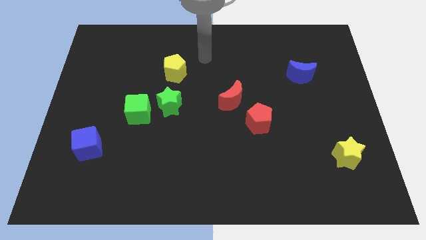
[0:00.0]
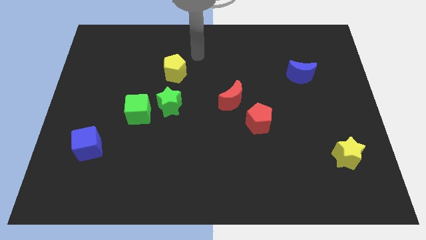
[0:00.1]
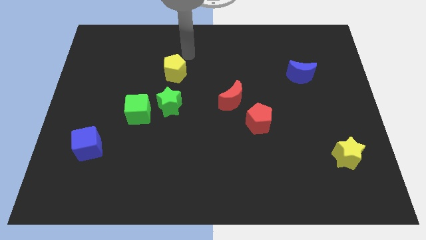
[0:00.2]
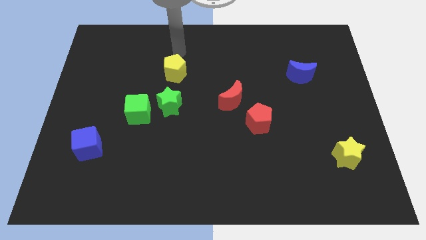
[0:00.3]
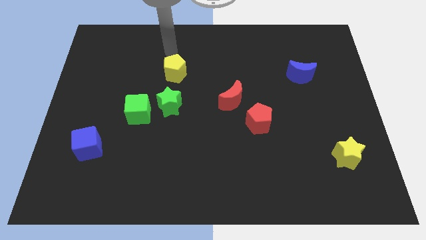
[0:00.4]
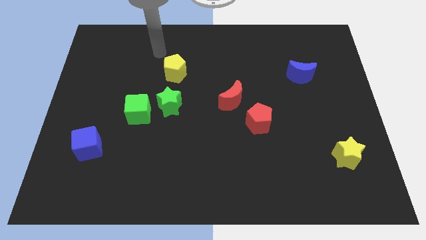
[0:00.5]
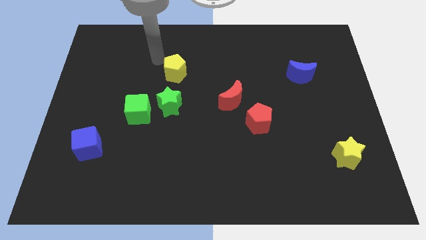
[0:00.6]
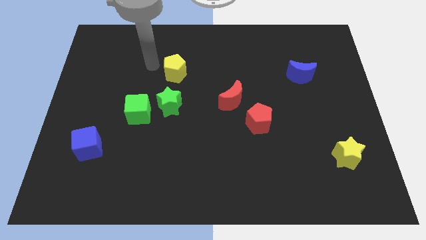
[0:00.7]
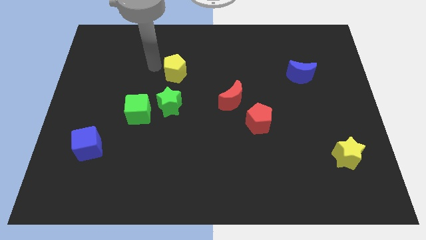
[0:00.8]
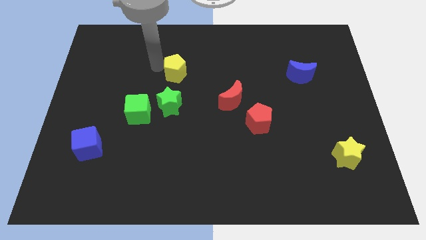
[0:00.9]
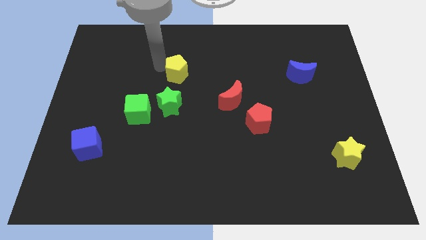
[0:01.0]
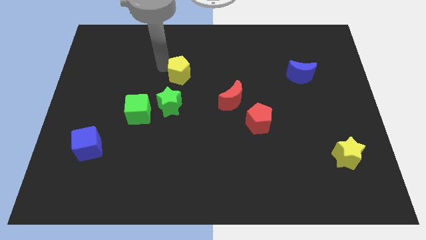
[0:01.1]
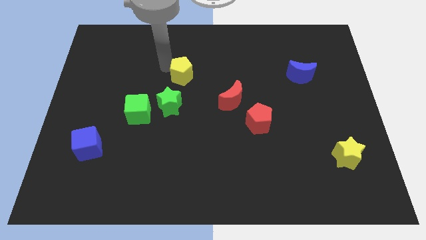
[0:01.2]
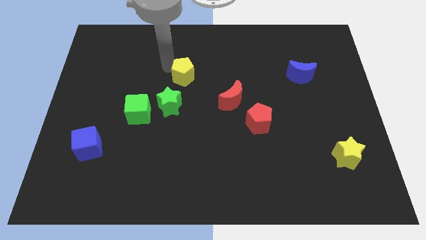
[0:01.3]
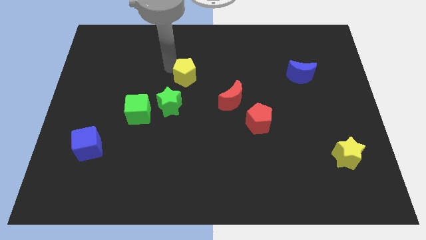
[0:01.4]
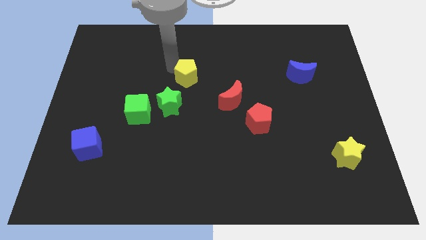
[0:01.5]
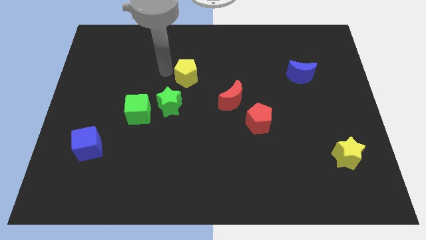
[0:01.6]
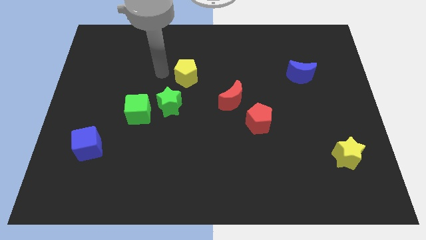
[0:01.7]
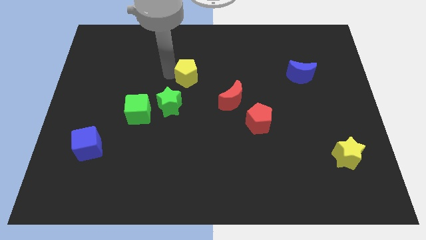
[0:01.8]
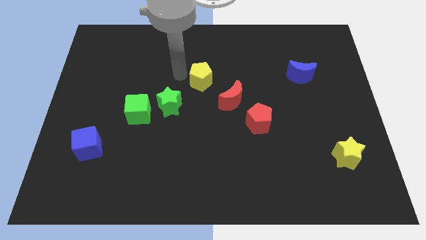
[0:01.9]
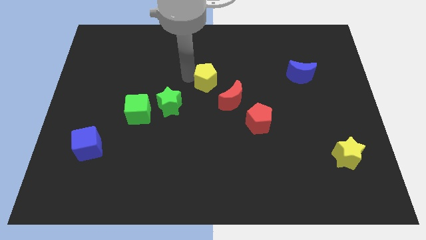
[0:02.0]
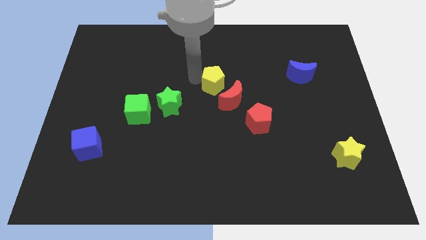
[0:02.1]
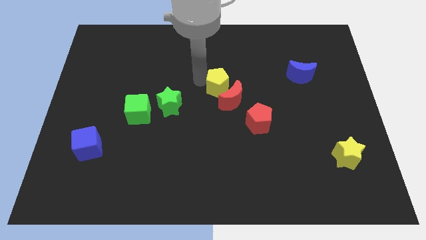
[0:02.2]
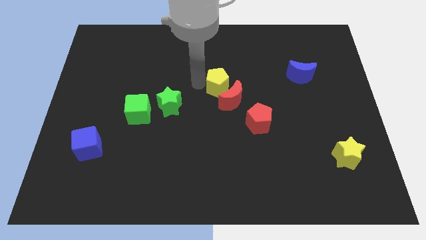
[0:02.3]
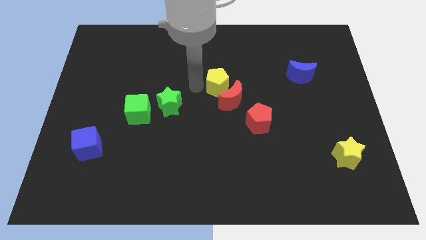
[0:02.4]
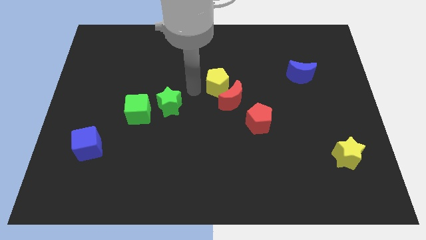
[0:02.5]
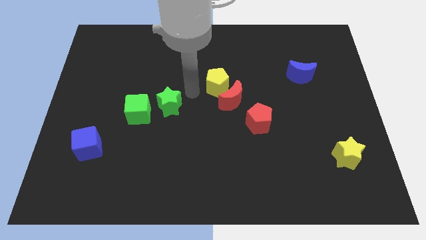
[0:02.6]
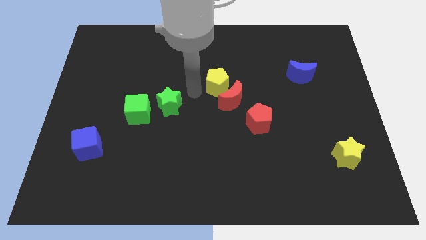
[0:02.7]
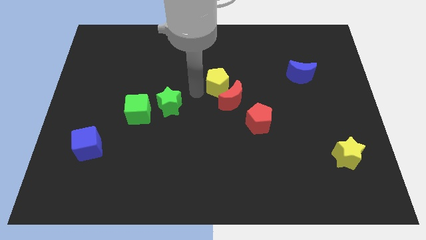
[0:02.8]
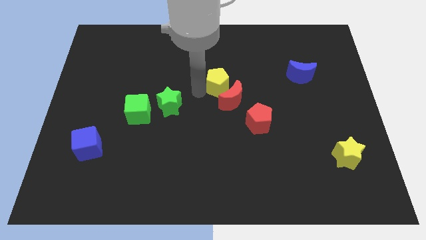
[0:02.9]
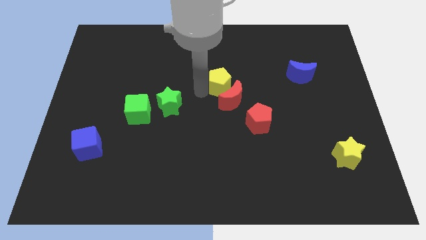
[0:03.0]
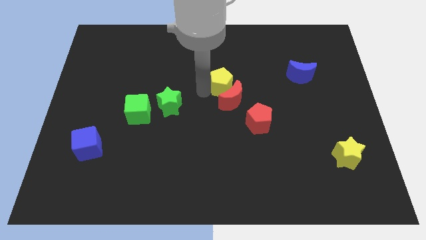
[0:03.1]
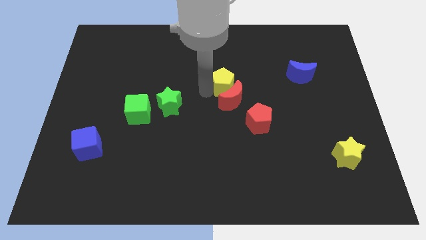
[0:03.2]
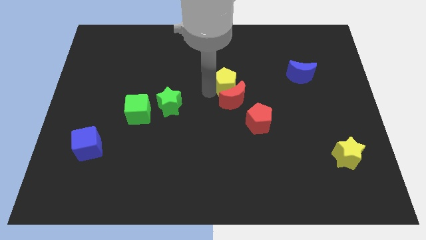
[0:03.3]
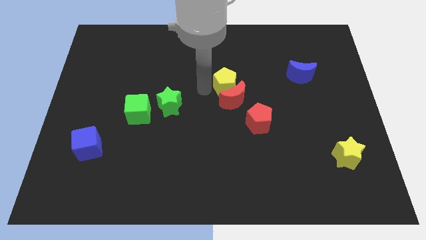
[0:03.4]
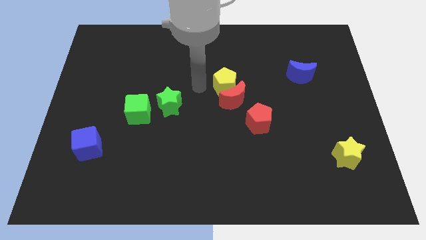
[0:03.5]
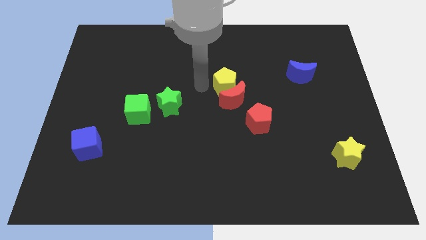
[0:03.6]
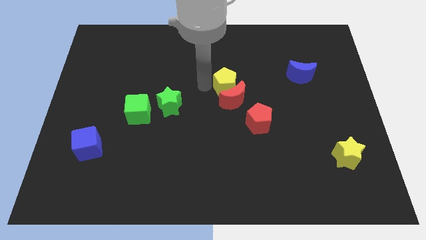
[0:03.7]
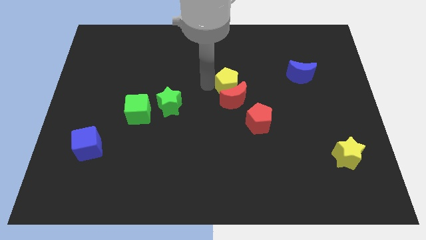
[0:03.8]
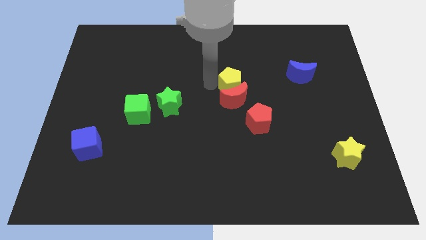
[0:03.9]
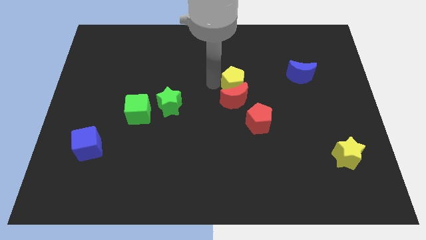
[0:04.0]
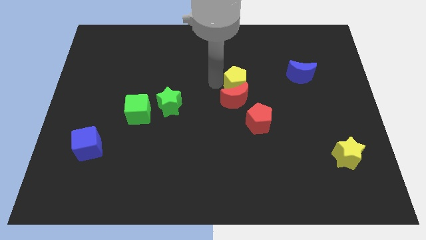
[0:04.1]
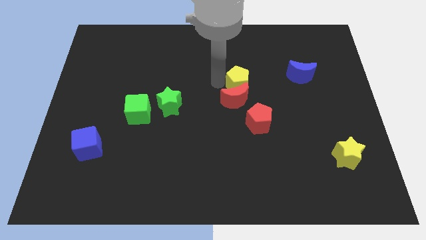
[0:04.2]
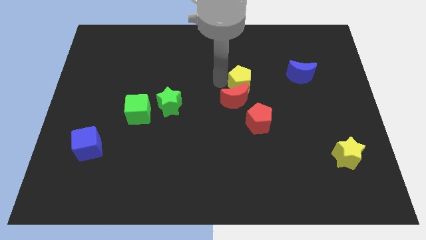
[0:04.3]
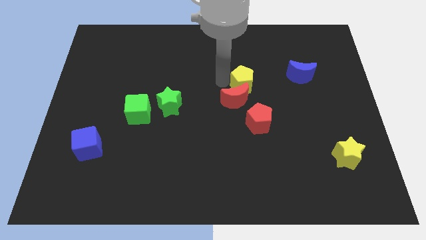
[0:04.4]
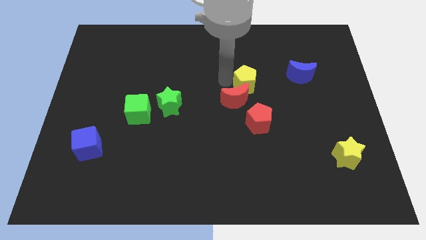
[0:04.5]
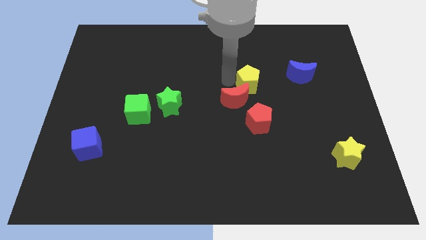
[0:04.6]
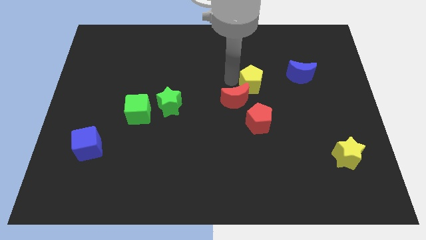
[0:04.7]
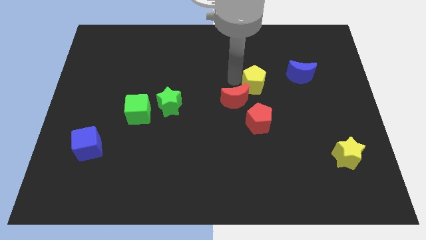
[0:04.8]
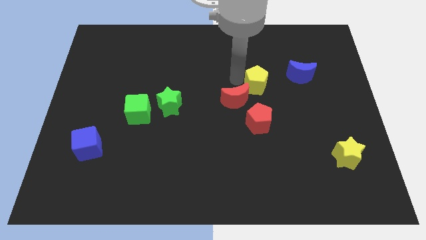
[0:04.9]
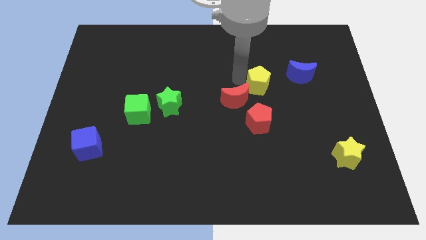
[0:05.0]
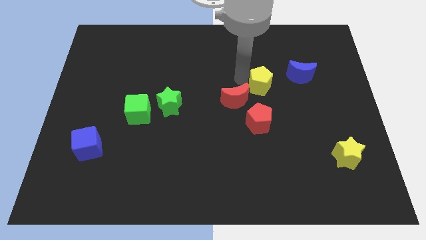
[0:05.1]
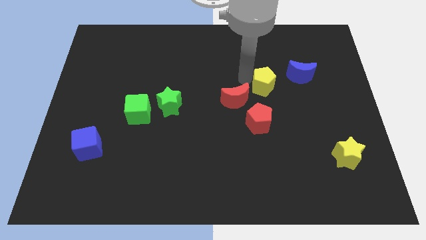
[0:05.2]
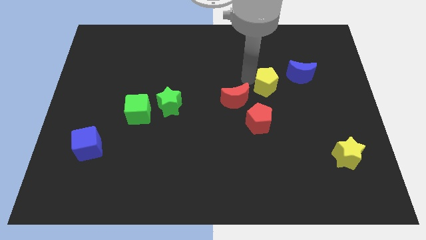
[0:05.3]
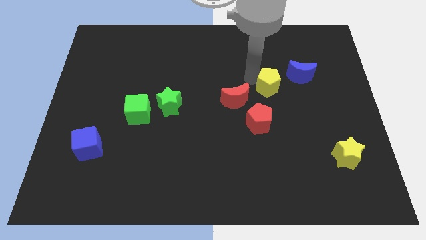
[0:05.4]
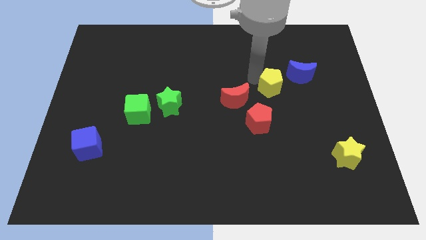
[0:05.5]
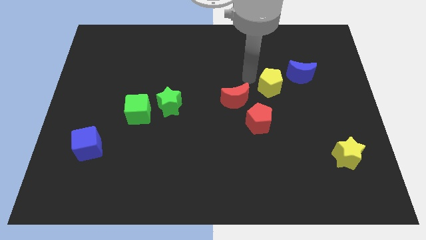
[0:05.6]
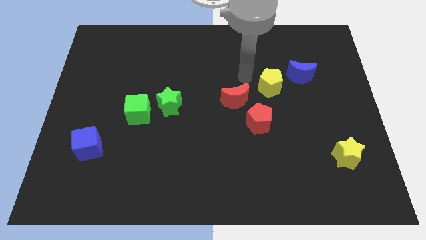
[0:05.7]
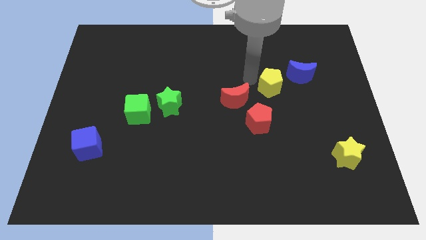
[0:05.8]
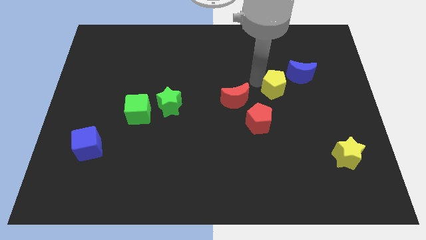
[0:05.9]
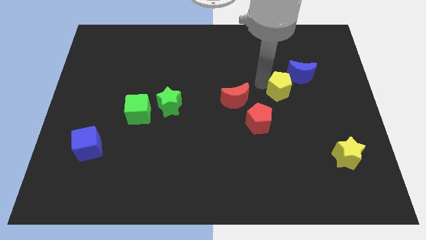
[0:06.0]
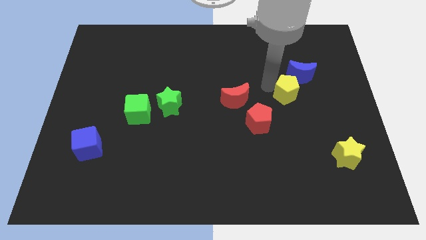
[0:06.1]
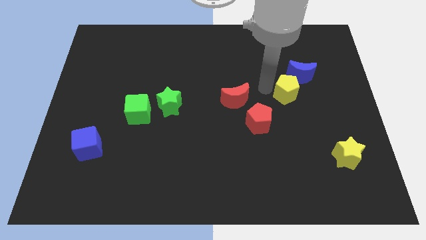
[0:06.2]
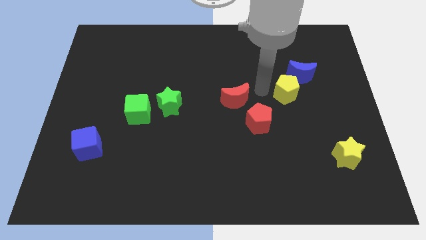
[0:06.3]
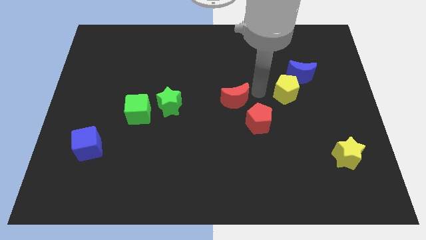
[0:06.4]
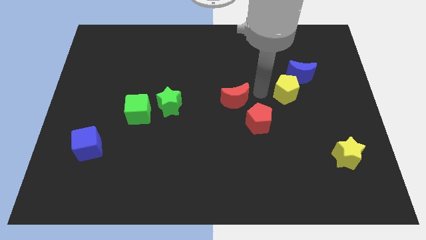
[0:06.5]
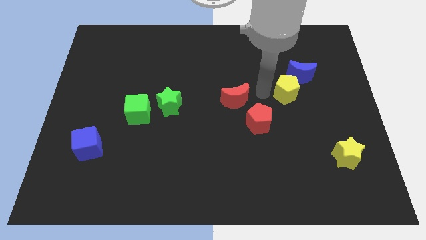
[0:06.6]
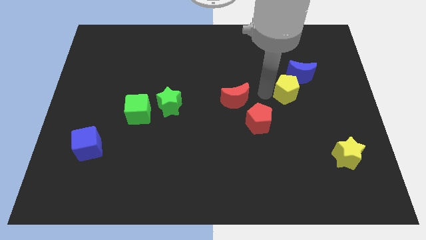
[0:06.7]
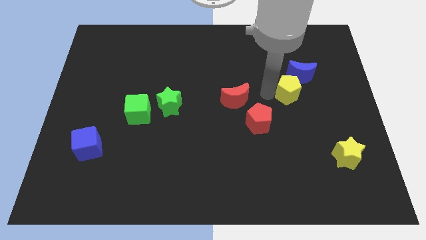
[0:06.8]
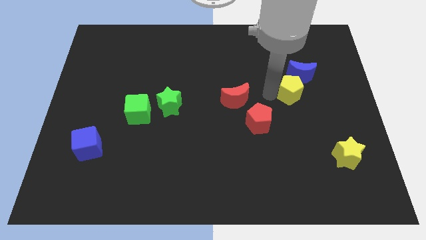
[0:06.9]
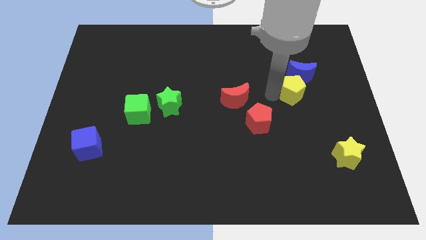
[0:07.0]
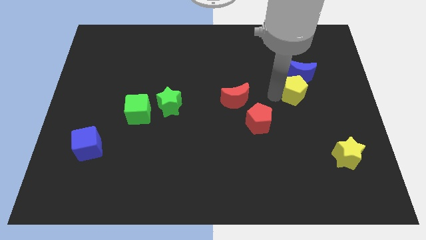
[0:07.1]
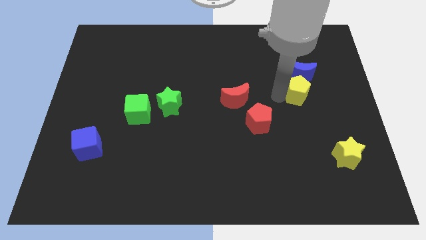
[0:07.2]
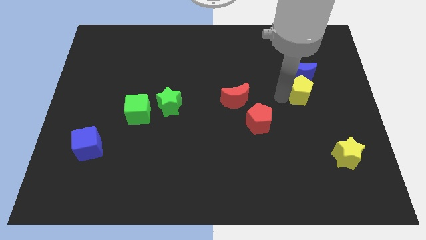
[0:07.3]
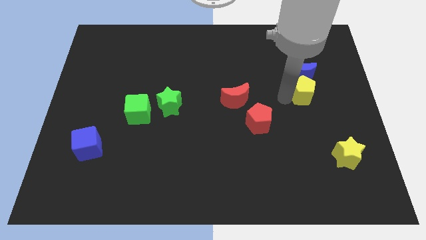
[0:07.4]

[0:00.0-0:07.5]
move the yellow pentagon to the bottom right of the blue moon
